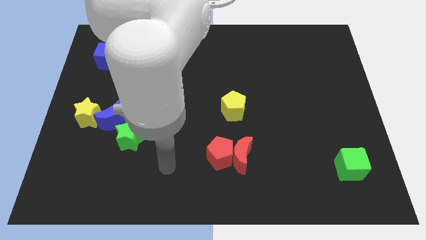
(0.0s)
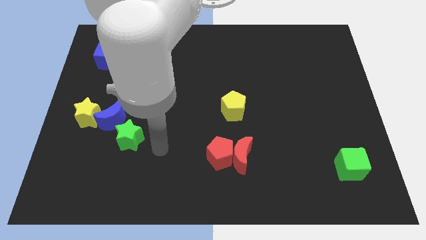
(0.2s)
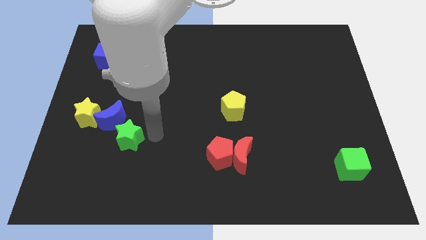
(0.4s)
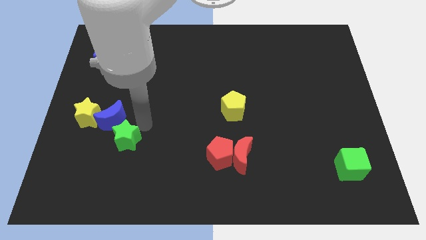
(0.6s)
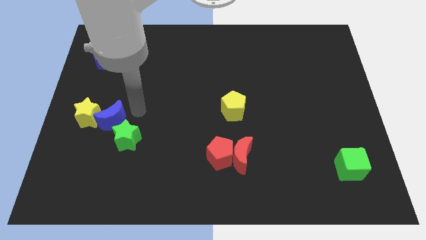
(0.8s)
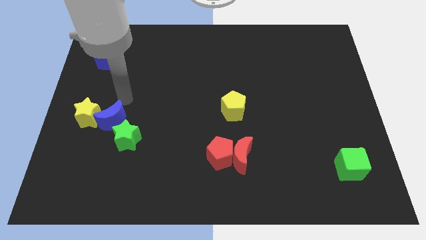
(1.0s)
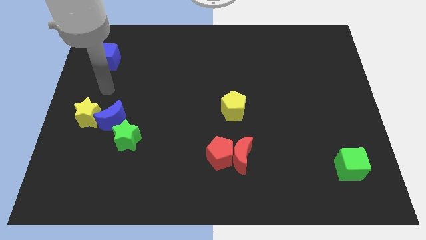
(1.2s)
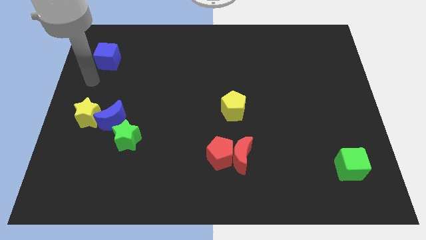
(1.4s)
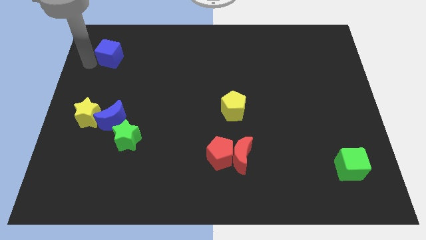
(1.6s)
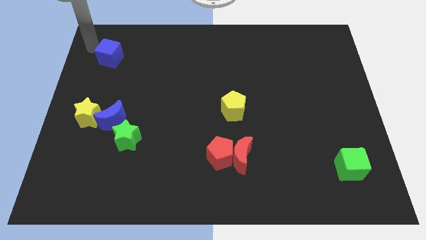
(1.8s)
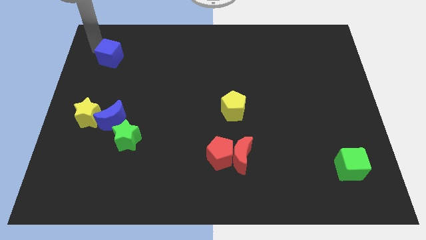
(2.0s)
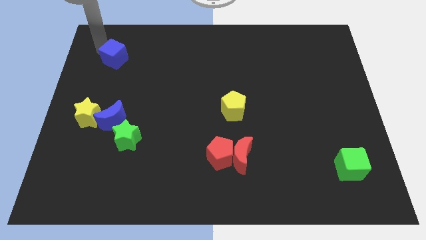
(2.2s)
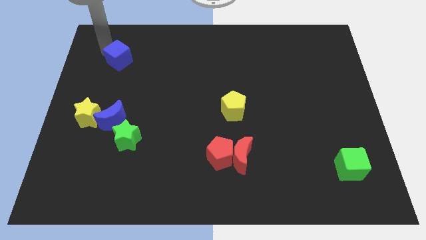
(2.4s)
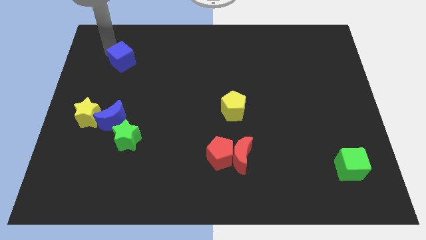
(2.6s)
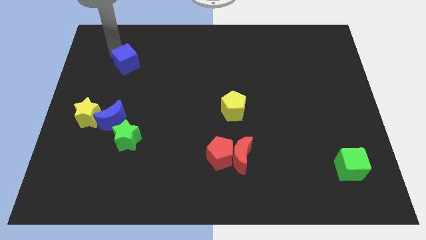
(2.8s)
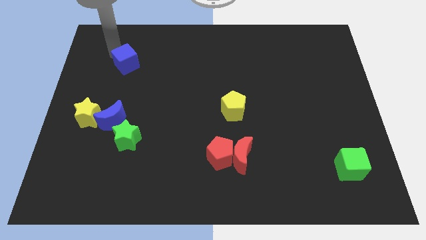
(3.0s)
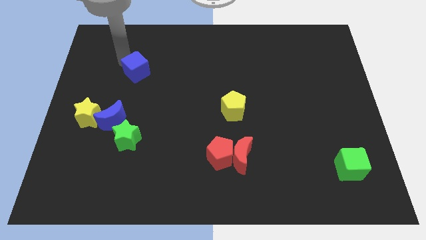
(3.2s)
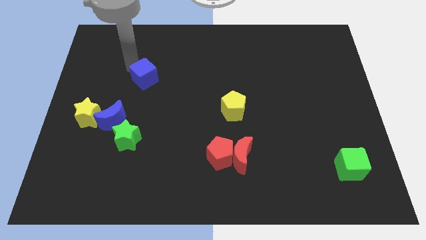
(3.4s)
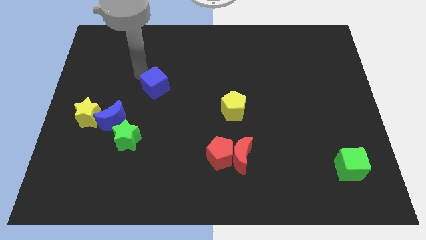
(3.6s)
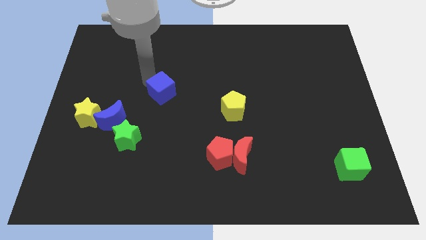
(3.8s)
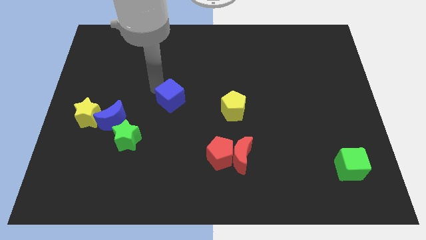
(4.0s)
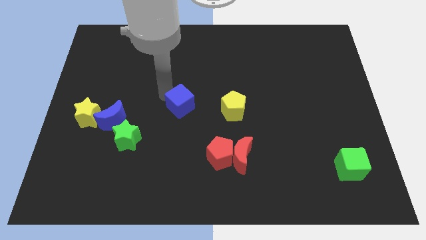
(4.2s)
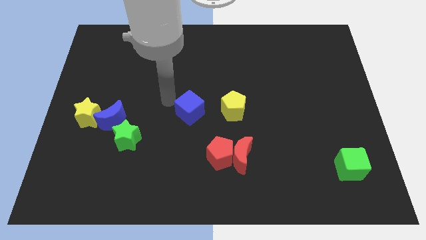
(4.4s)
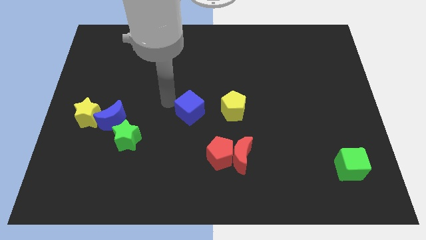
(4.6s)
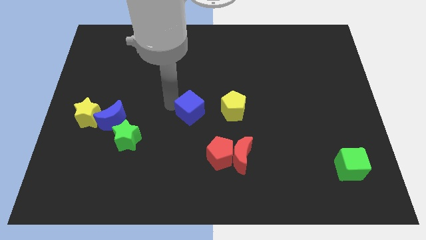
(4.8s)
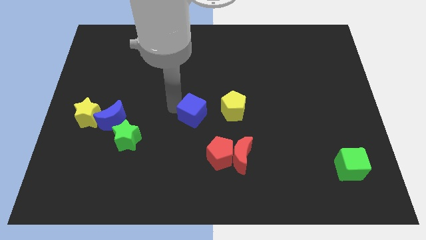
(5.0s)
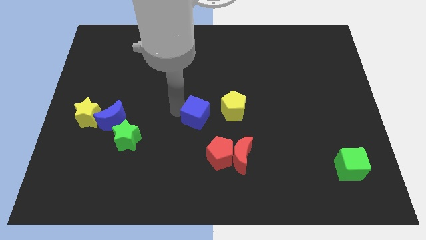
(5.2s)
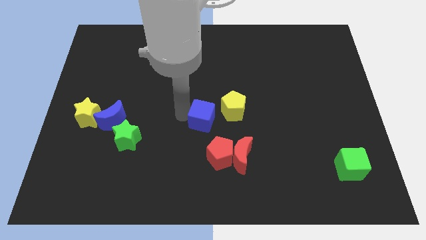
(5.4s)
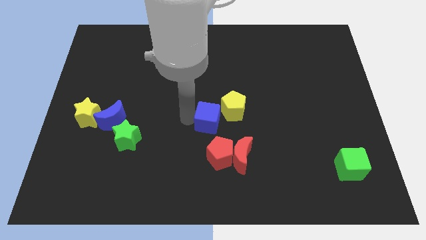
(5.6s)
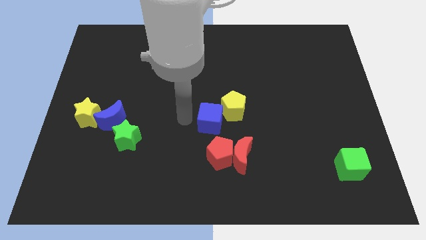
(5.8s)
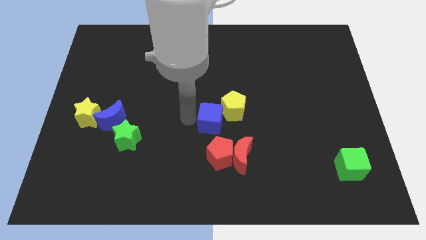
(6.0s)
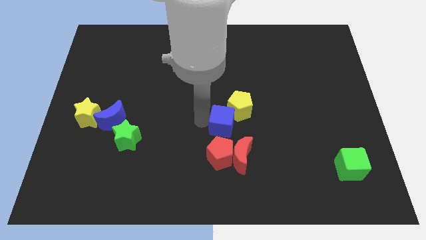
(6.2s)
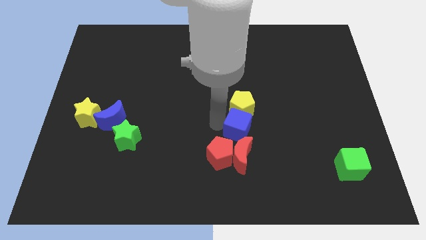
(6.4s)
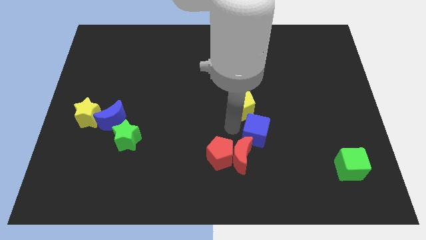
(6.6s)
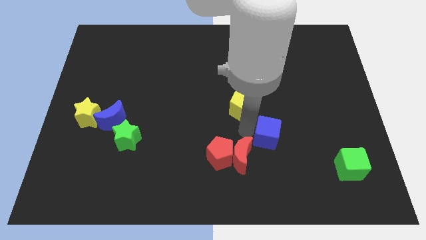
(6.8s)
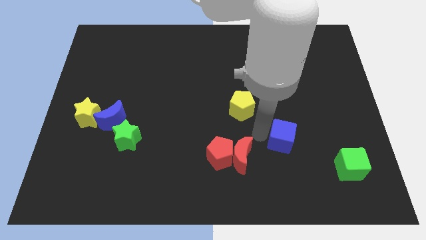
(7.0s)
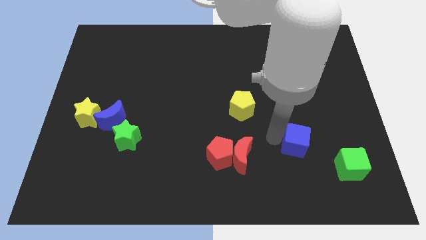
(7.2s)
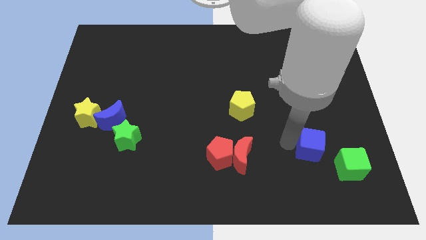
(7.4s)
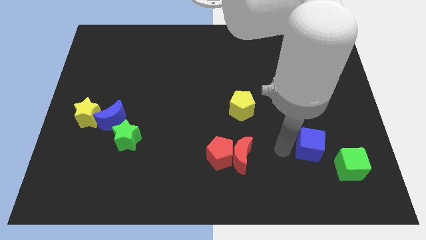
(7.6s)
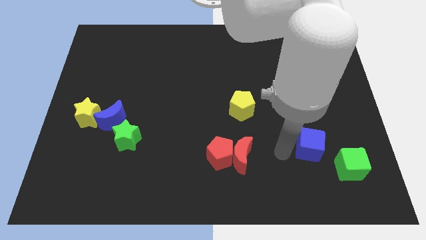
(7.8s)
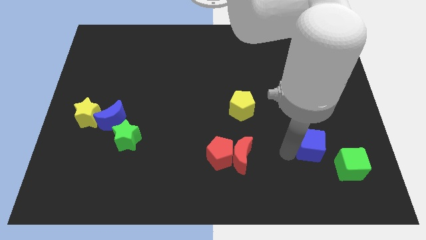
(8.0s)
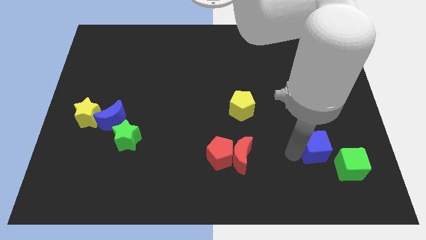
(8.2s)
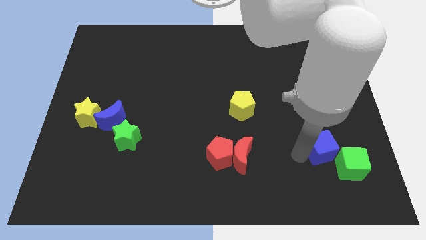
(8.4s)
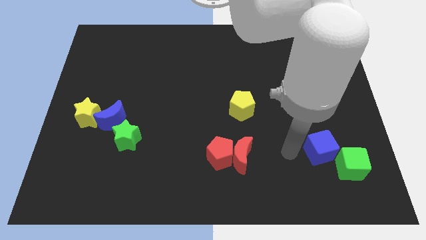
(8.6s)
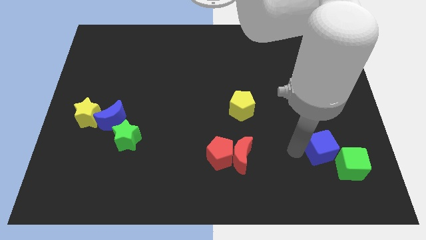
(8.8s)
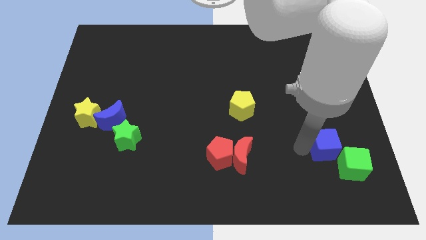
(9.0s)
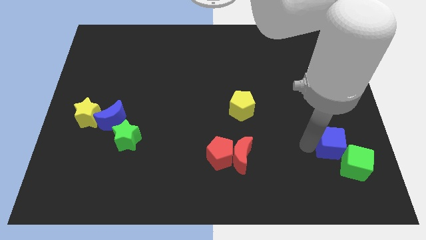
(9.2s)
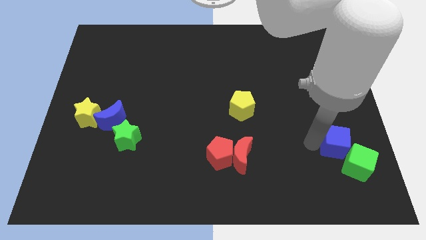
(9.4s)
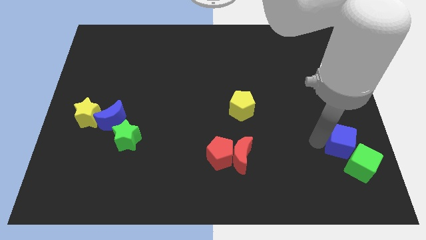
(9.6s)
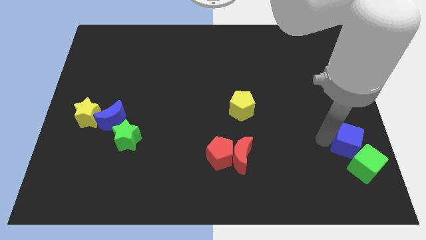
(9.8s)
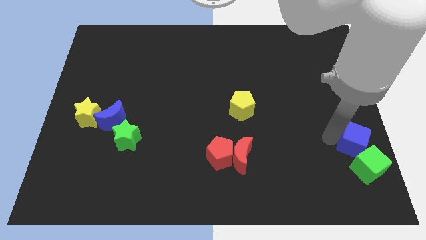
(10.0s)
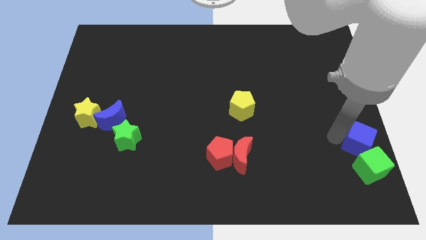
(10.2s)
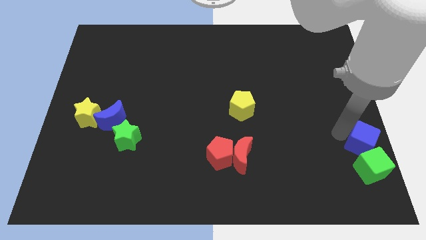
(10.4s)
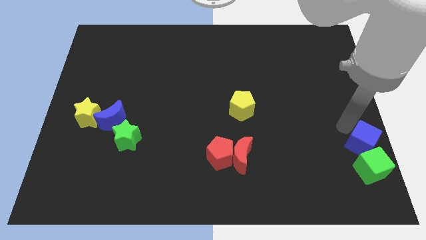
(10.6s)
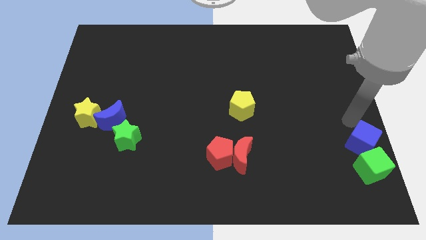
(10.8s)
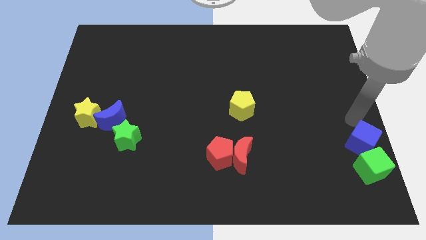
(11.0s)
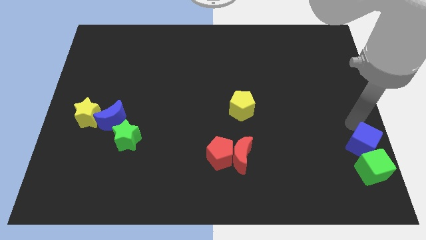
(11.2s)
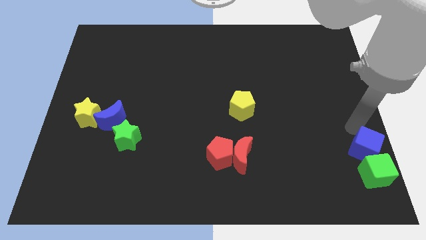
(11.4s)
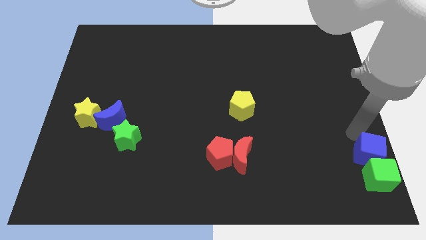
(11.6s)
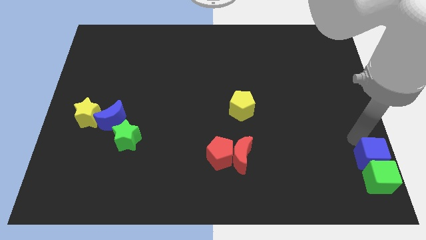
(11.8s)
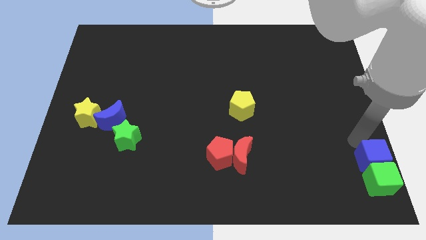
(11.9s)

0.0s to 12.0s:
move the blue cube to the bottom right

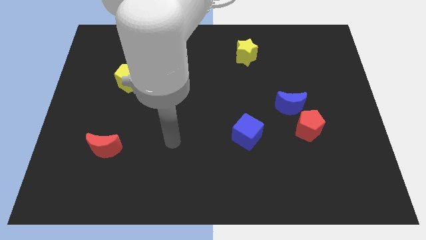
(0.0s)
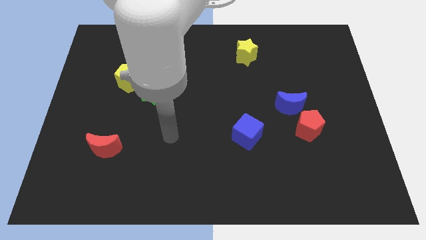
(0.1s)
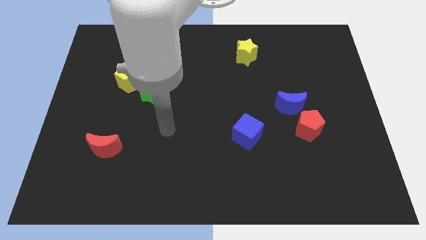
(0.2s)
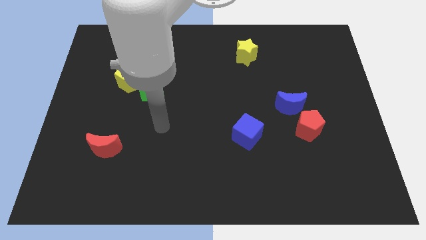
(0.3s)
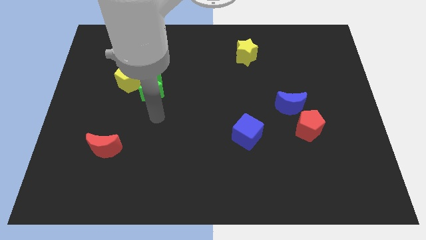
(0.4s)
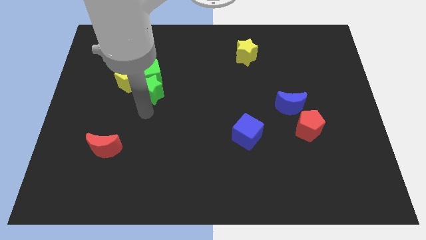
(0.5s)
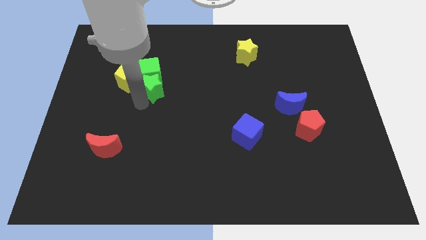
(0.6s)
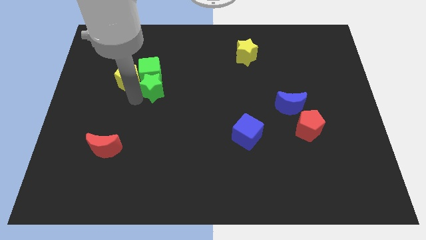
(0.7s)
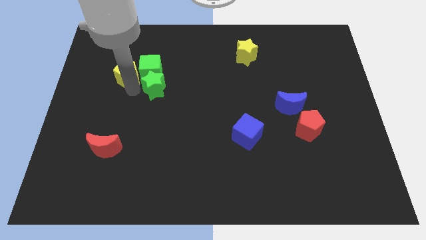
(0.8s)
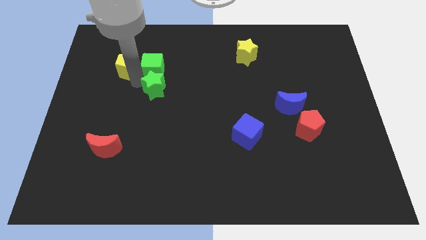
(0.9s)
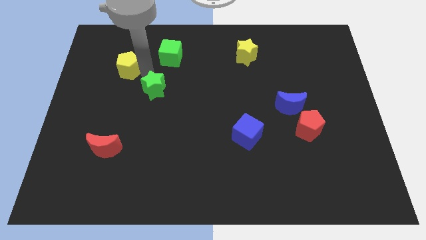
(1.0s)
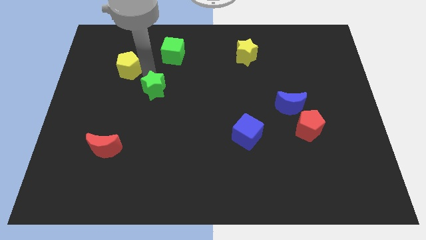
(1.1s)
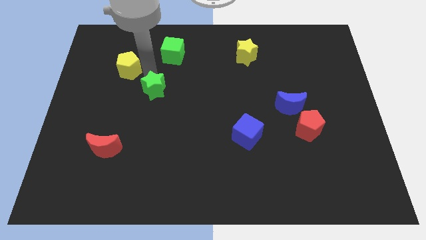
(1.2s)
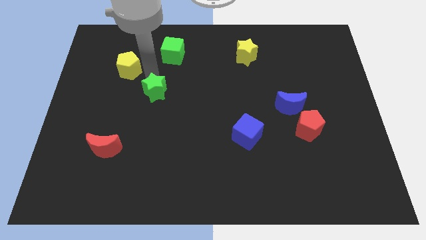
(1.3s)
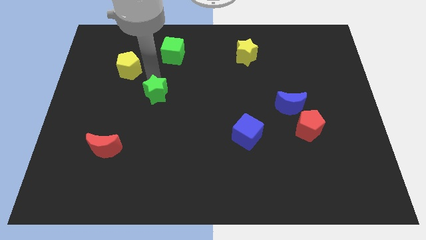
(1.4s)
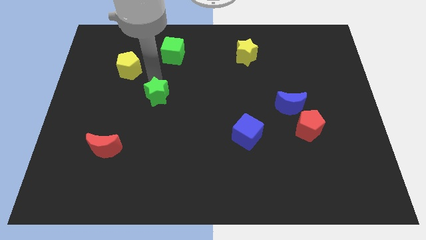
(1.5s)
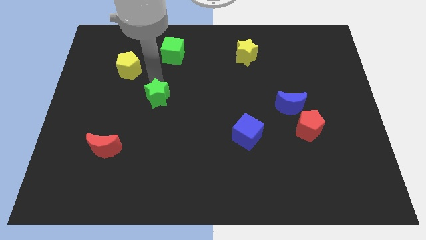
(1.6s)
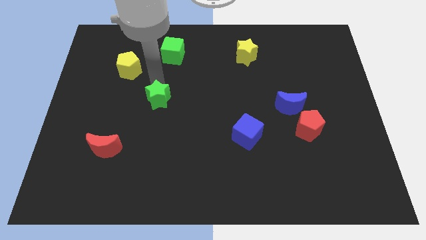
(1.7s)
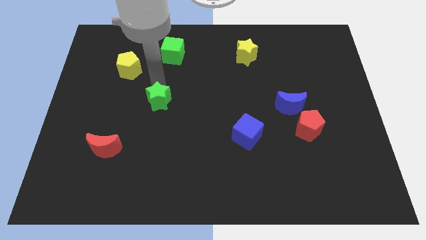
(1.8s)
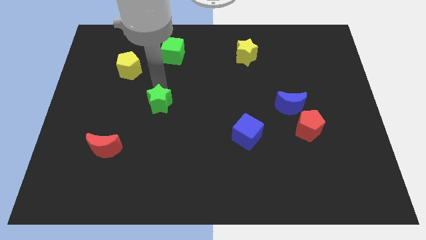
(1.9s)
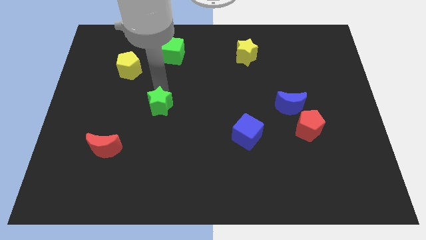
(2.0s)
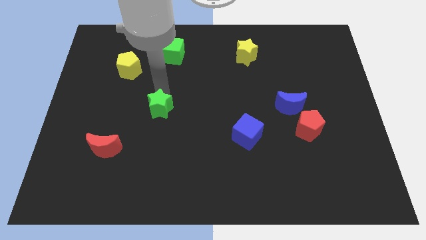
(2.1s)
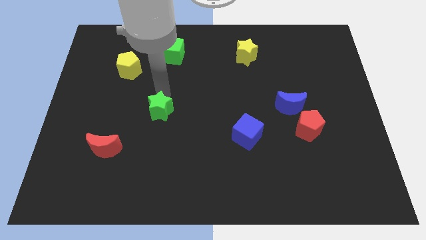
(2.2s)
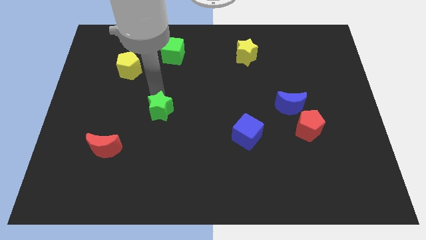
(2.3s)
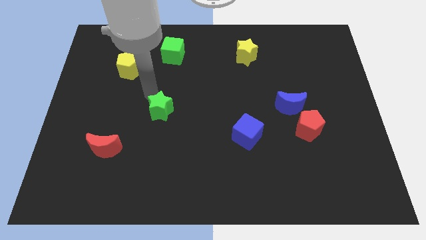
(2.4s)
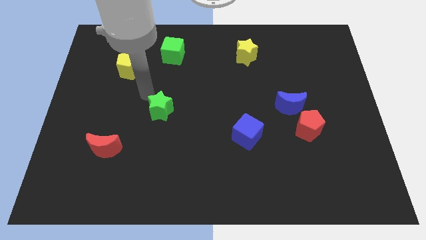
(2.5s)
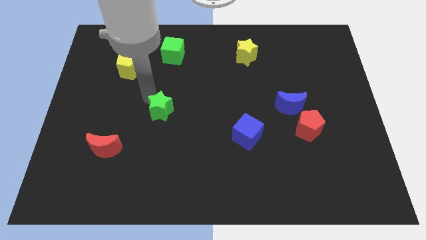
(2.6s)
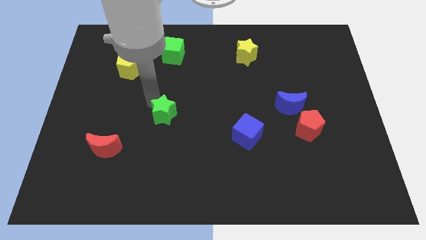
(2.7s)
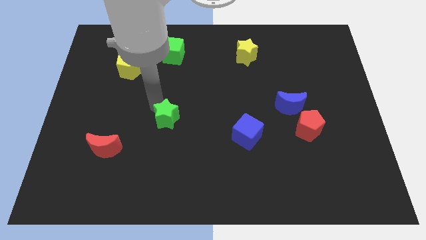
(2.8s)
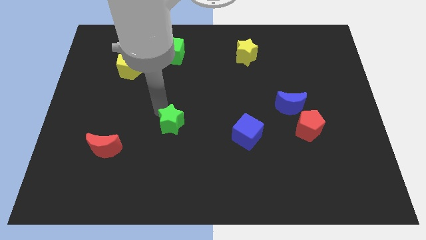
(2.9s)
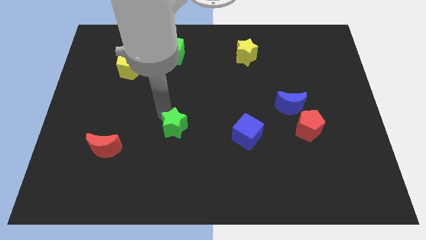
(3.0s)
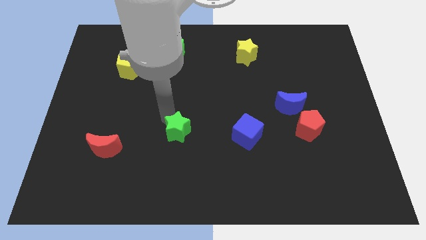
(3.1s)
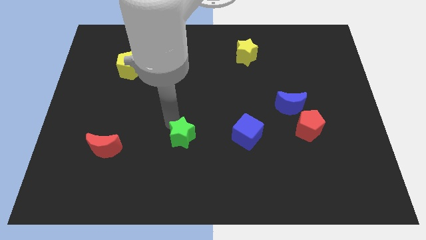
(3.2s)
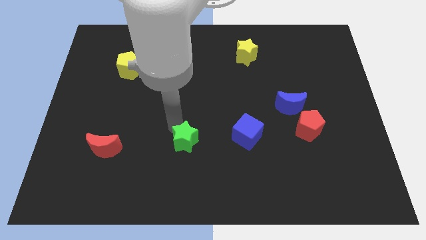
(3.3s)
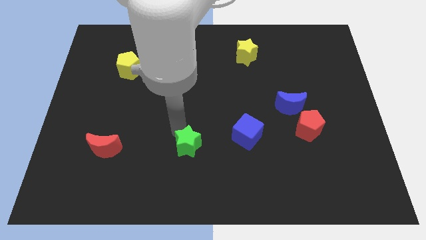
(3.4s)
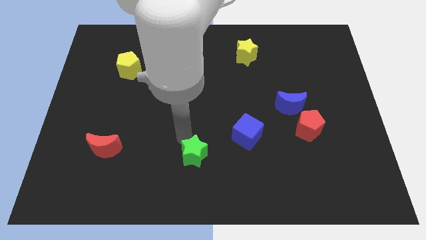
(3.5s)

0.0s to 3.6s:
slide the green star to the bottom
